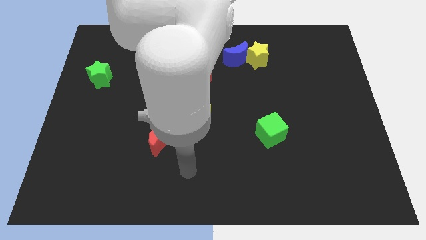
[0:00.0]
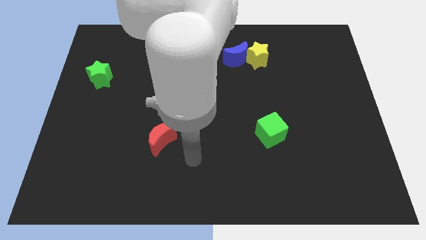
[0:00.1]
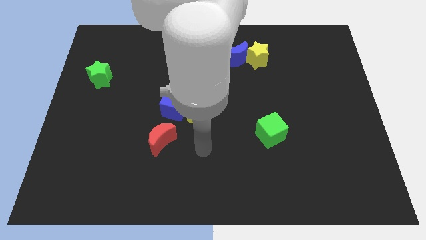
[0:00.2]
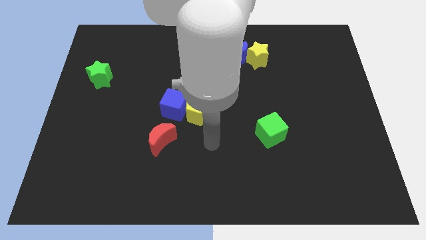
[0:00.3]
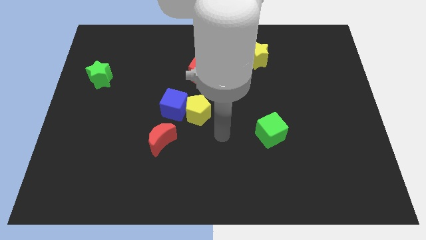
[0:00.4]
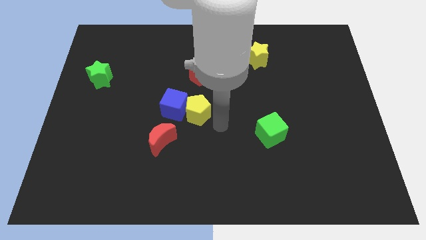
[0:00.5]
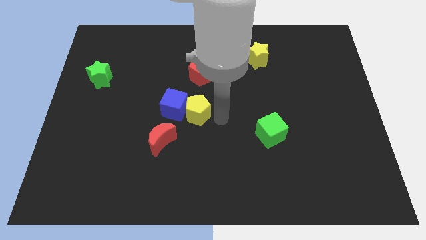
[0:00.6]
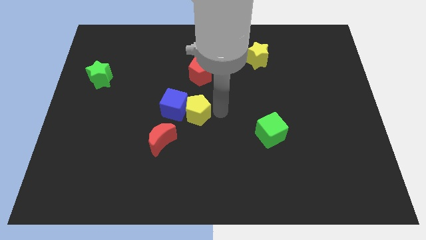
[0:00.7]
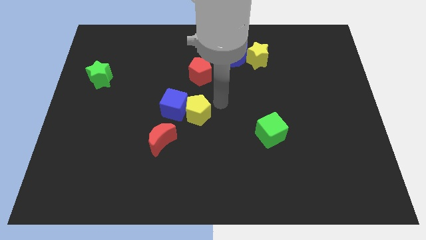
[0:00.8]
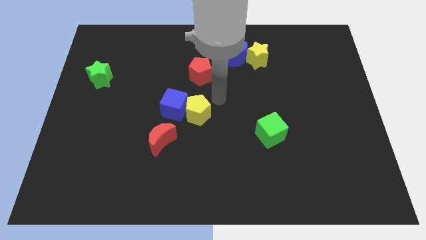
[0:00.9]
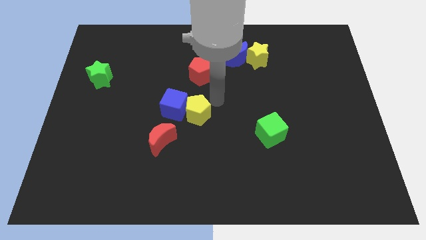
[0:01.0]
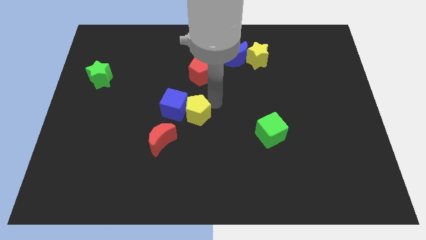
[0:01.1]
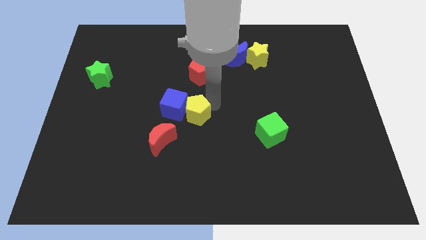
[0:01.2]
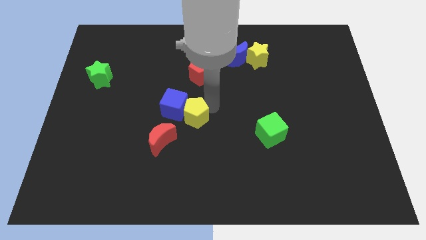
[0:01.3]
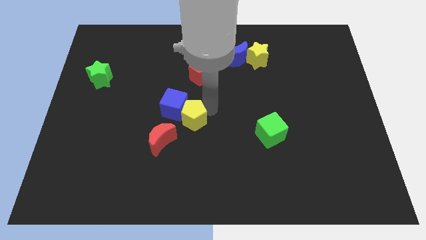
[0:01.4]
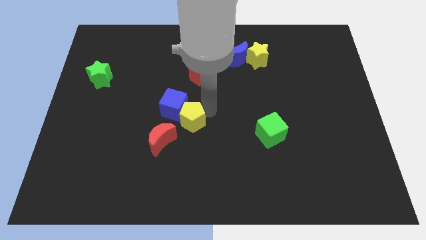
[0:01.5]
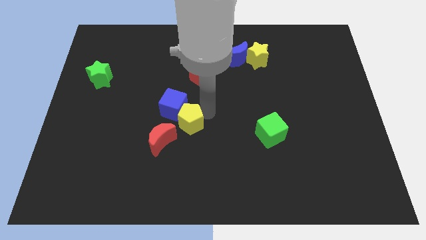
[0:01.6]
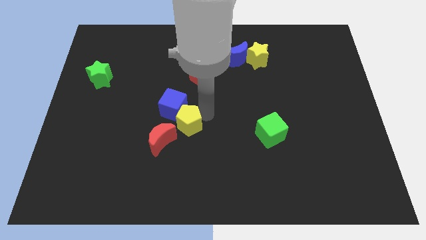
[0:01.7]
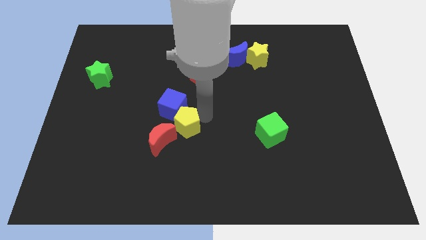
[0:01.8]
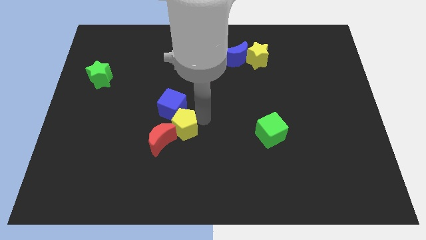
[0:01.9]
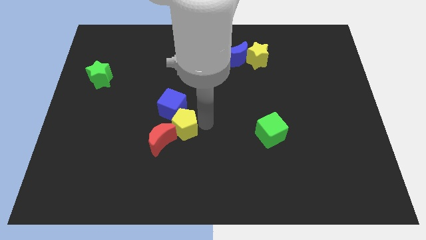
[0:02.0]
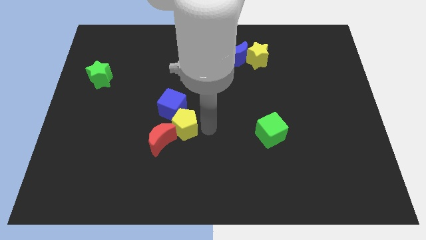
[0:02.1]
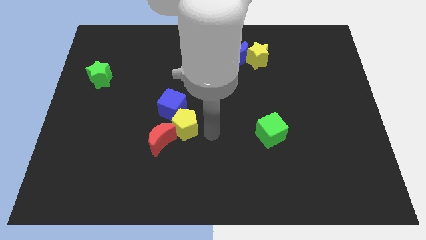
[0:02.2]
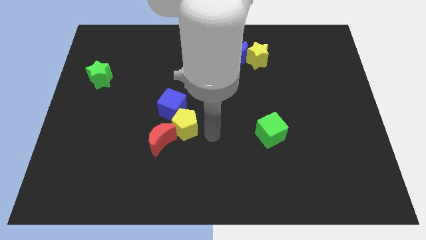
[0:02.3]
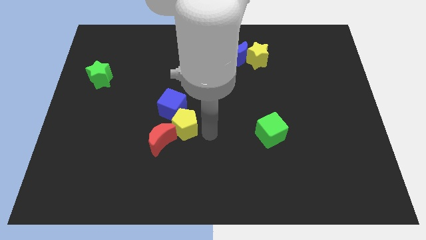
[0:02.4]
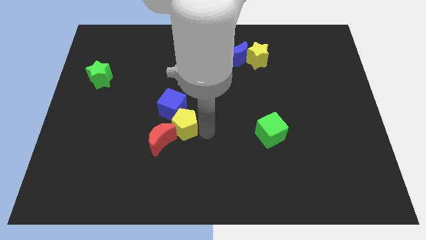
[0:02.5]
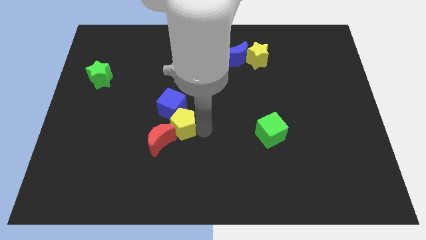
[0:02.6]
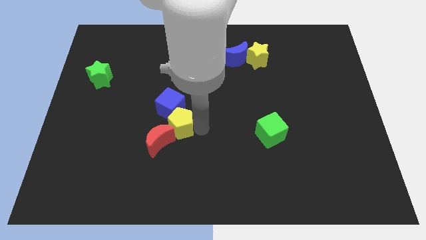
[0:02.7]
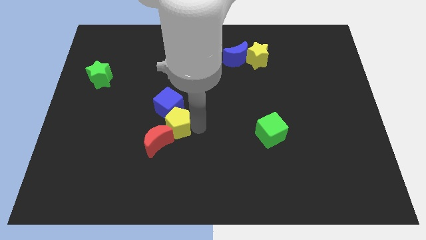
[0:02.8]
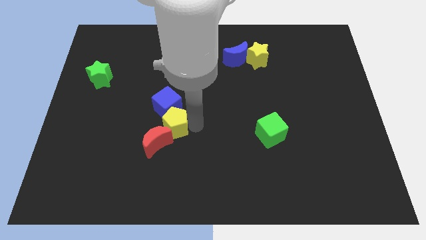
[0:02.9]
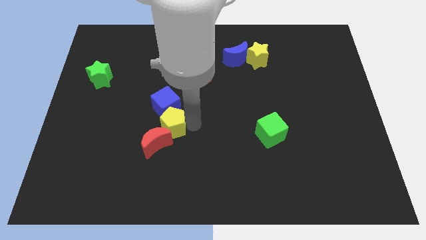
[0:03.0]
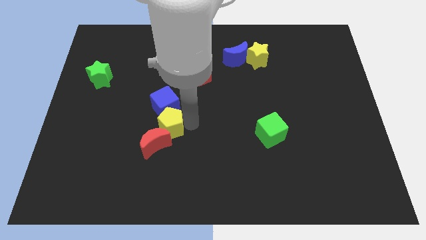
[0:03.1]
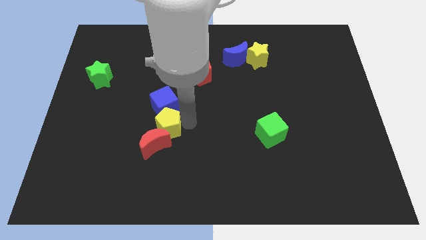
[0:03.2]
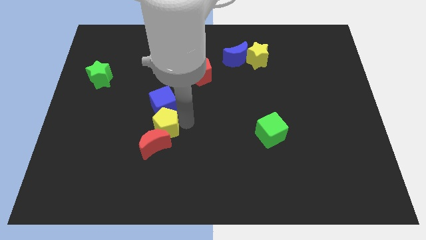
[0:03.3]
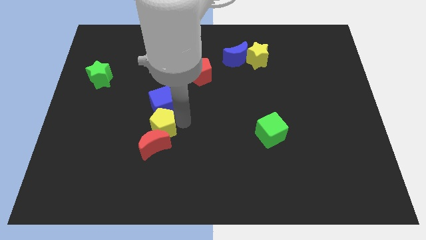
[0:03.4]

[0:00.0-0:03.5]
slightly push the yellow pentagon left

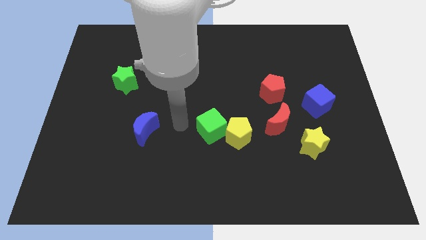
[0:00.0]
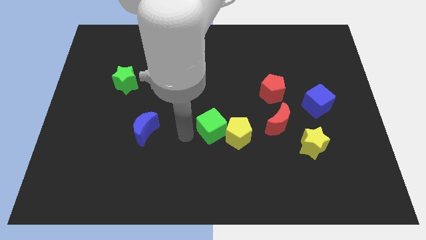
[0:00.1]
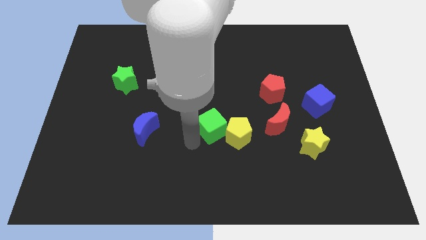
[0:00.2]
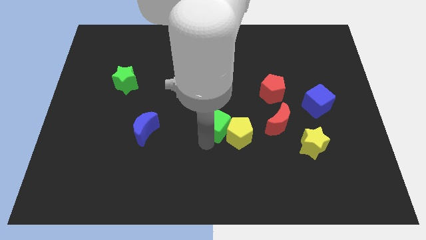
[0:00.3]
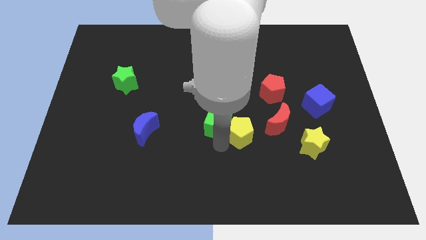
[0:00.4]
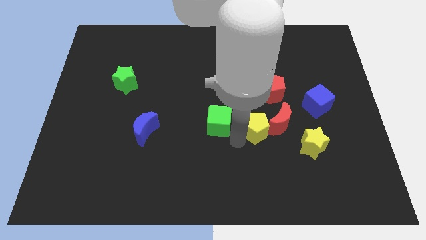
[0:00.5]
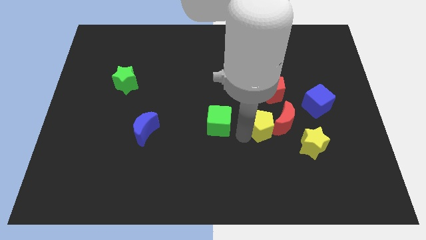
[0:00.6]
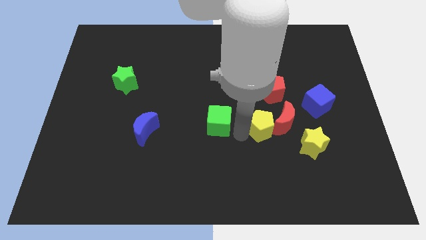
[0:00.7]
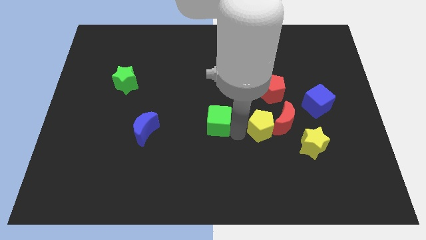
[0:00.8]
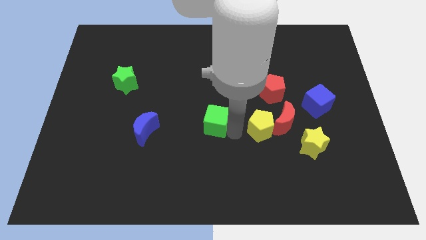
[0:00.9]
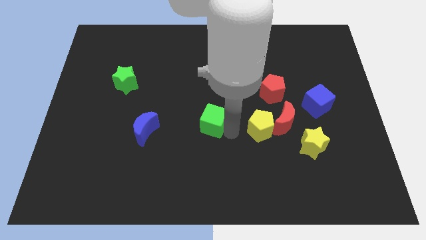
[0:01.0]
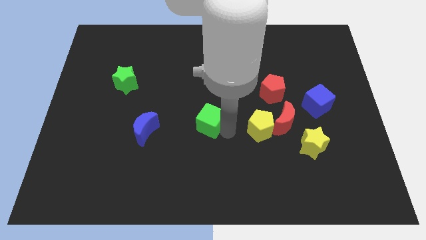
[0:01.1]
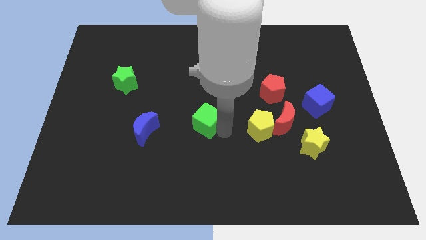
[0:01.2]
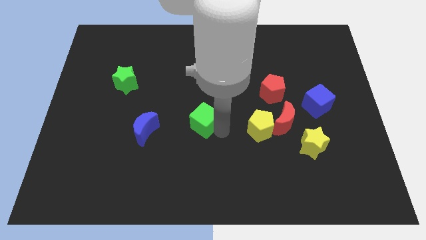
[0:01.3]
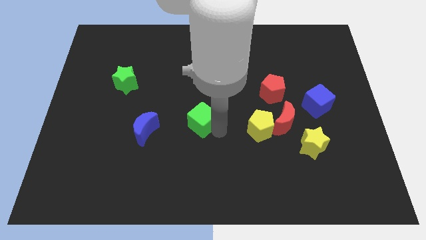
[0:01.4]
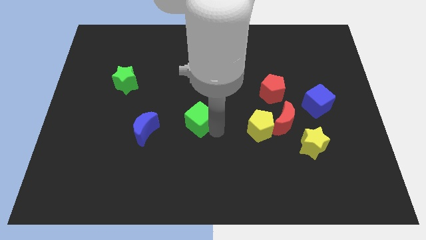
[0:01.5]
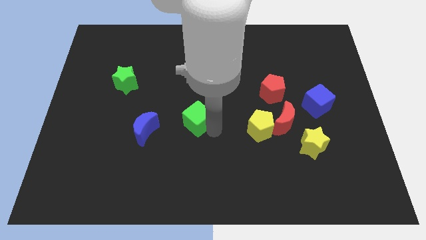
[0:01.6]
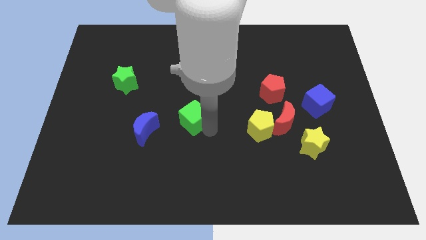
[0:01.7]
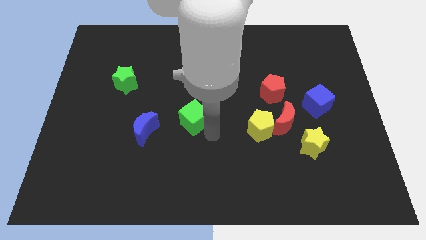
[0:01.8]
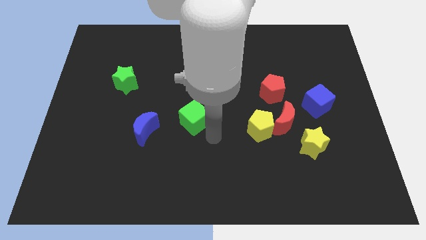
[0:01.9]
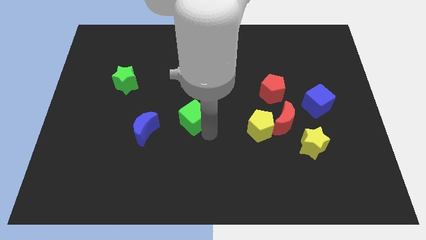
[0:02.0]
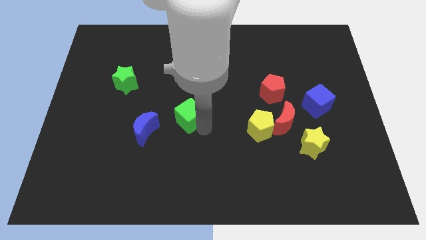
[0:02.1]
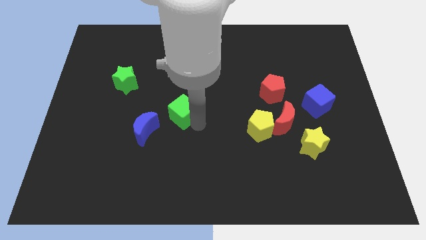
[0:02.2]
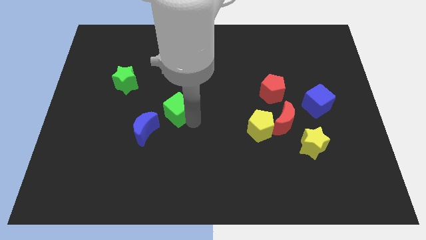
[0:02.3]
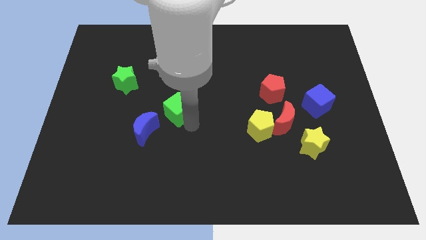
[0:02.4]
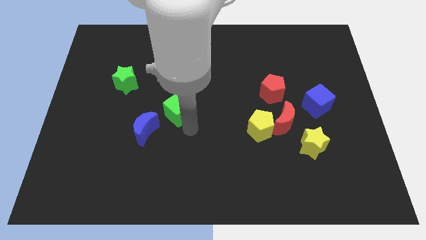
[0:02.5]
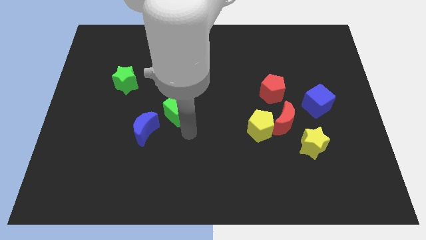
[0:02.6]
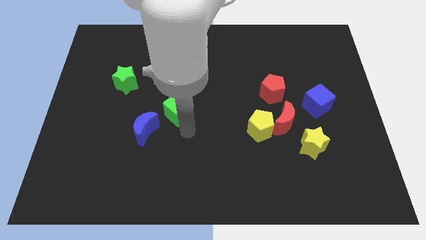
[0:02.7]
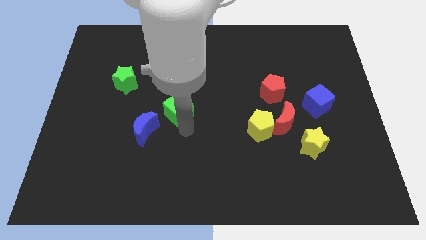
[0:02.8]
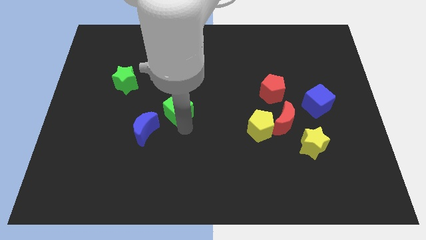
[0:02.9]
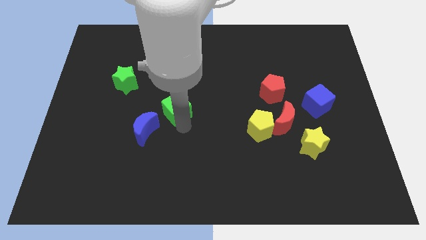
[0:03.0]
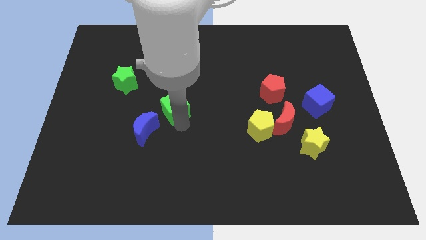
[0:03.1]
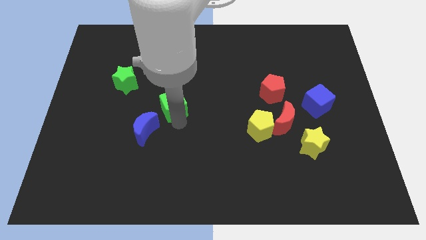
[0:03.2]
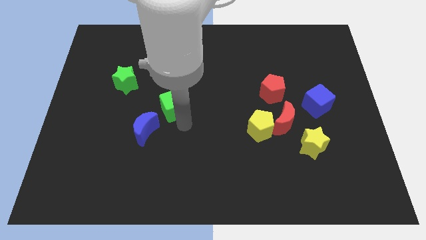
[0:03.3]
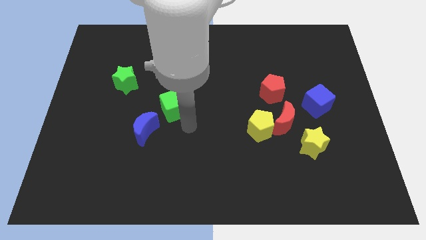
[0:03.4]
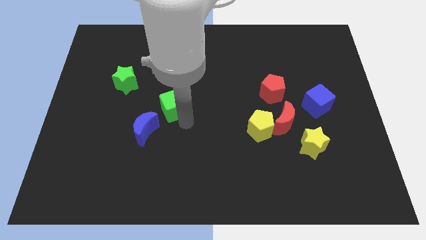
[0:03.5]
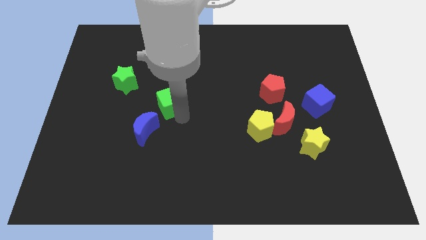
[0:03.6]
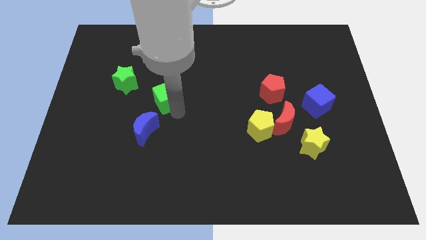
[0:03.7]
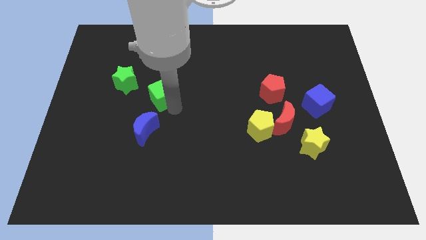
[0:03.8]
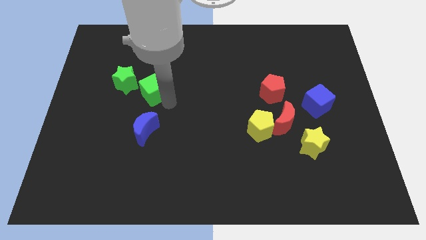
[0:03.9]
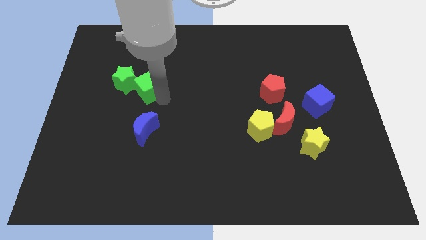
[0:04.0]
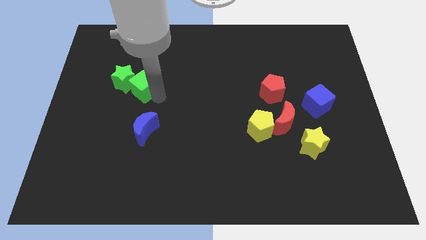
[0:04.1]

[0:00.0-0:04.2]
slide the green cube upwards and left
